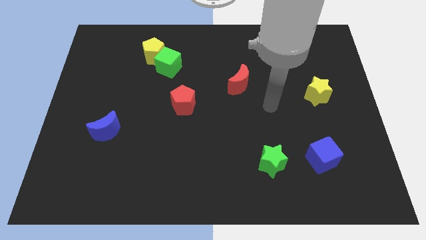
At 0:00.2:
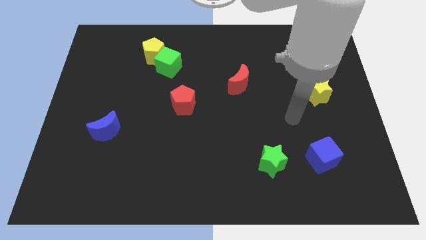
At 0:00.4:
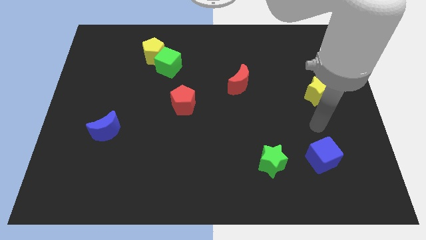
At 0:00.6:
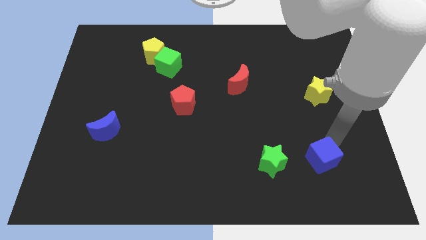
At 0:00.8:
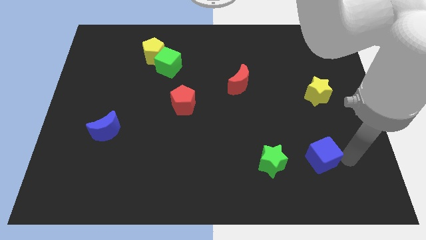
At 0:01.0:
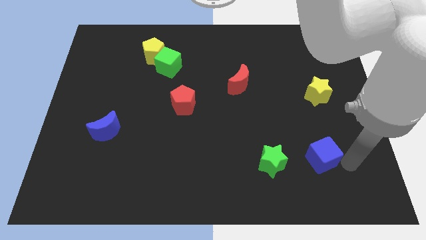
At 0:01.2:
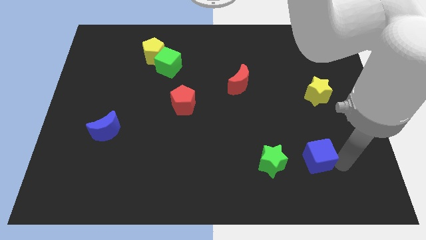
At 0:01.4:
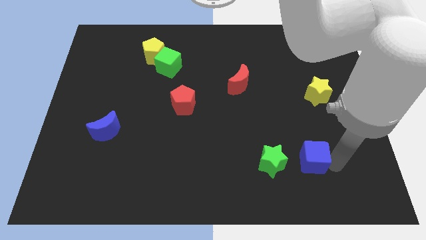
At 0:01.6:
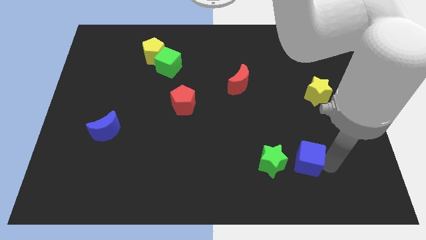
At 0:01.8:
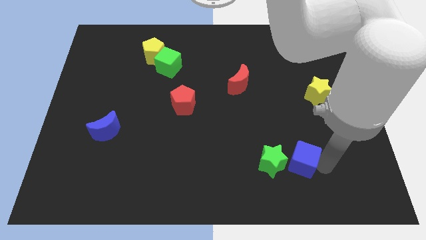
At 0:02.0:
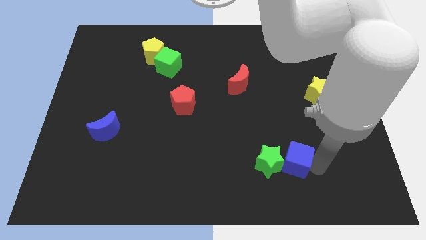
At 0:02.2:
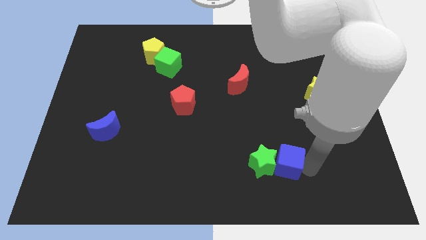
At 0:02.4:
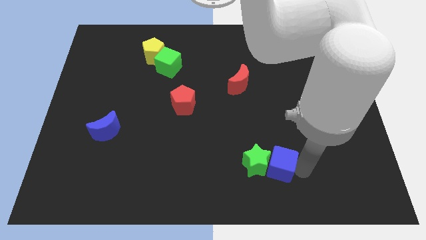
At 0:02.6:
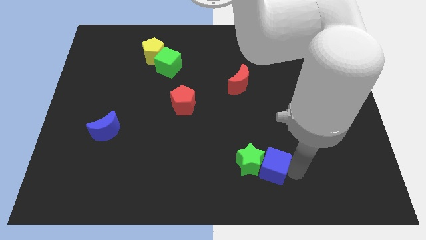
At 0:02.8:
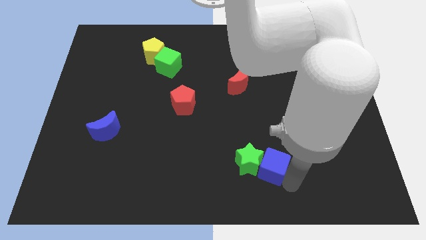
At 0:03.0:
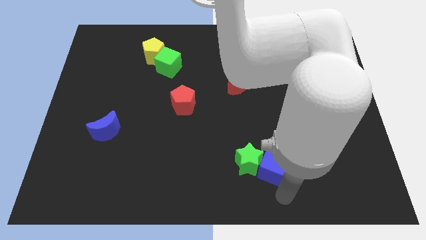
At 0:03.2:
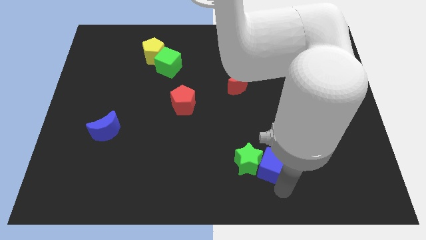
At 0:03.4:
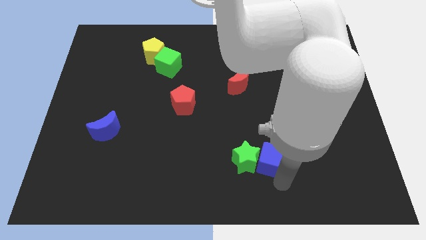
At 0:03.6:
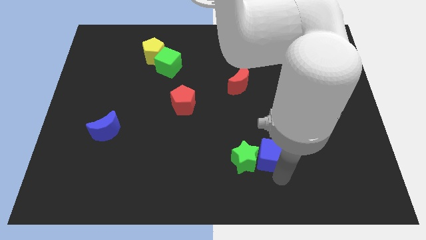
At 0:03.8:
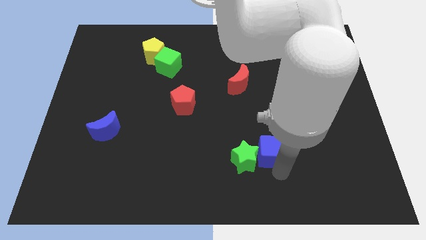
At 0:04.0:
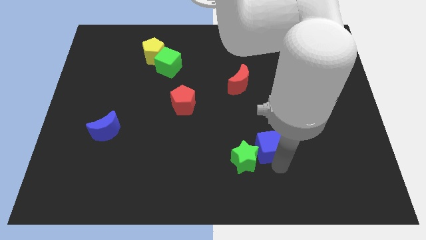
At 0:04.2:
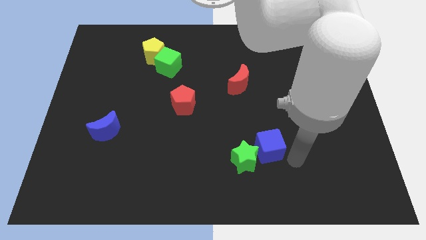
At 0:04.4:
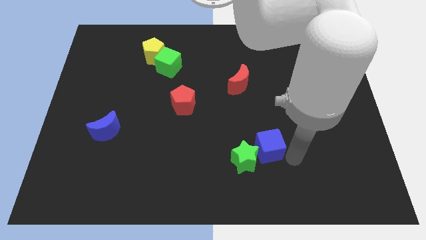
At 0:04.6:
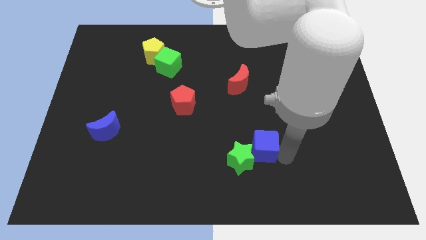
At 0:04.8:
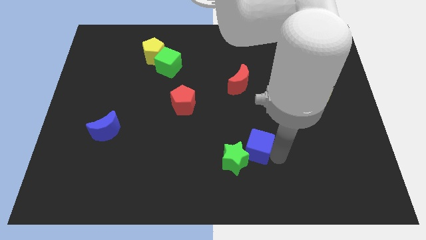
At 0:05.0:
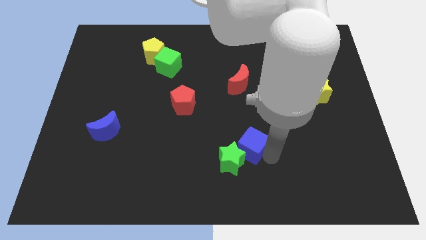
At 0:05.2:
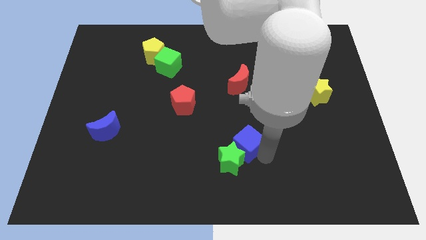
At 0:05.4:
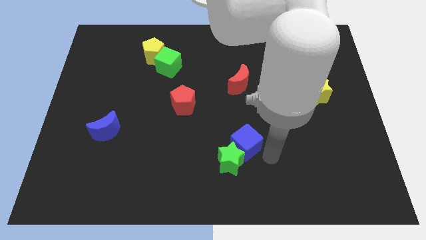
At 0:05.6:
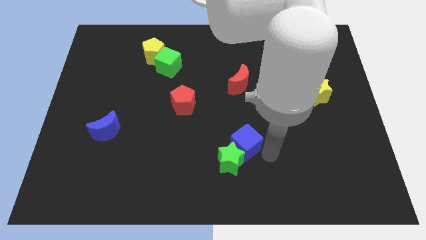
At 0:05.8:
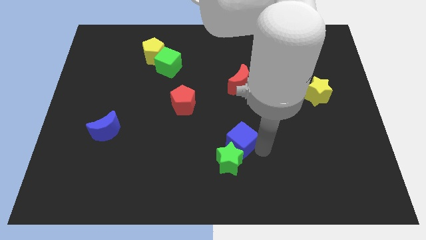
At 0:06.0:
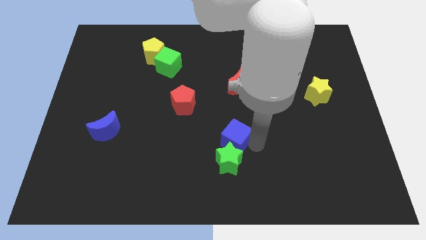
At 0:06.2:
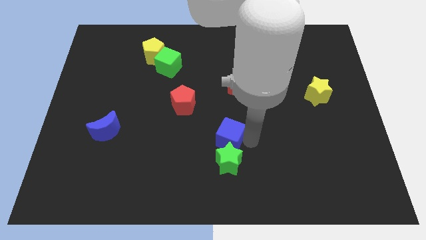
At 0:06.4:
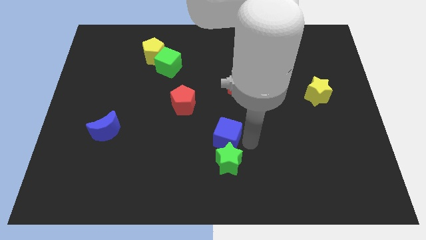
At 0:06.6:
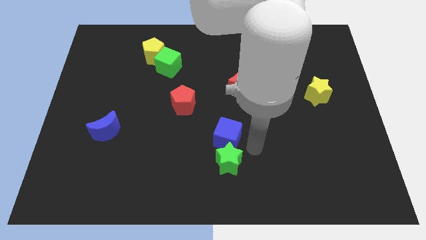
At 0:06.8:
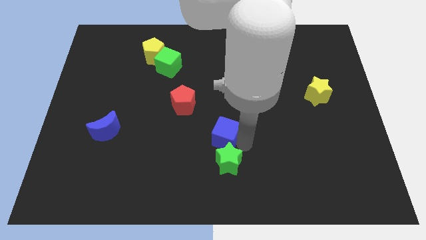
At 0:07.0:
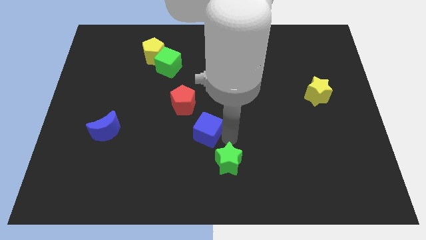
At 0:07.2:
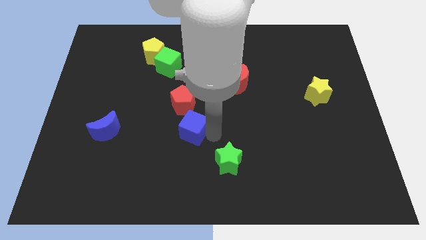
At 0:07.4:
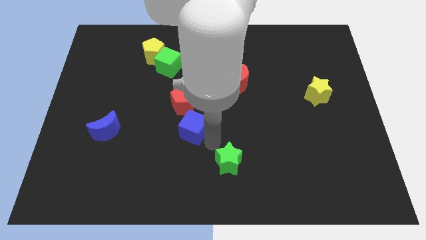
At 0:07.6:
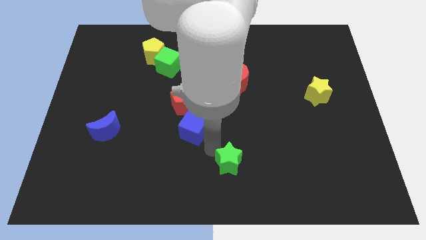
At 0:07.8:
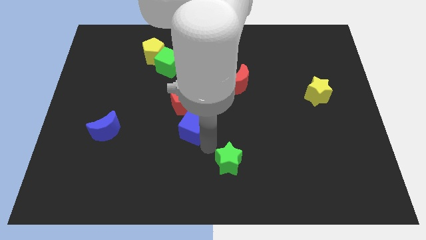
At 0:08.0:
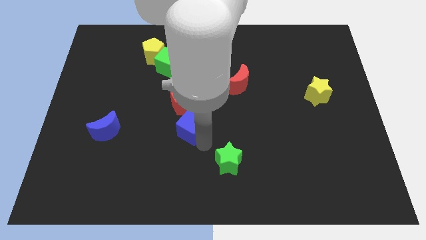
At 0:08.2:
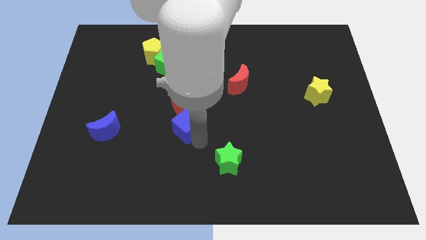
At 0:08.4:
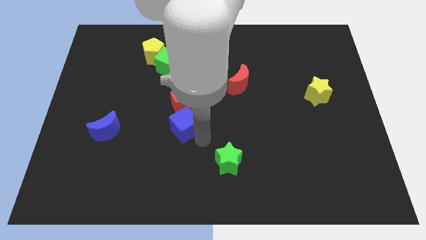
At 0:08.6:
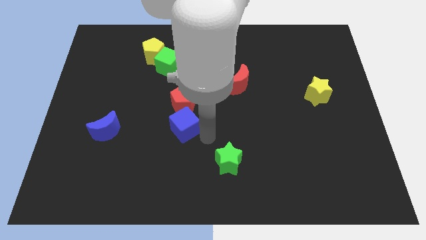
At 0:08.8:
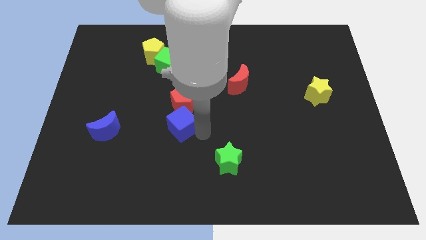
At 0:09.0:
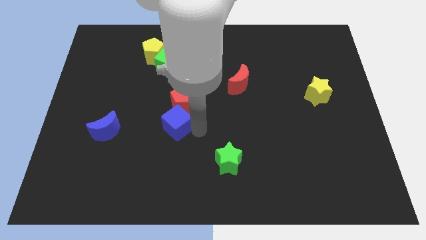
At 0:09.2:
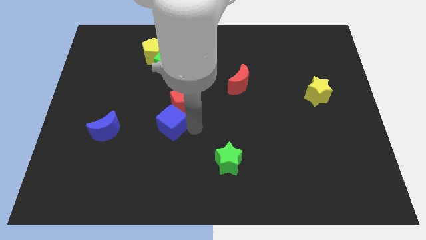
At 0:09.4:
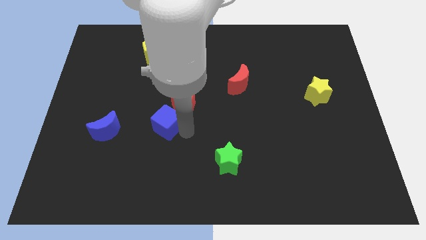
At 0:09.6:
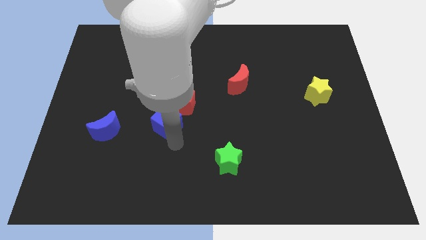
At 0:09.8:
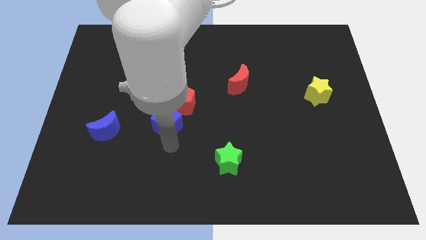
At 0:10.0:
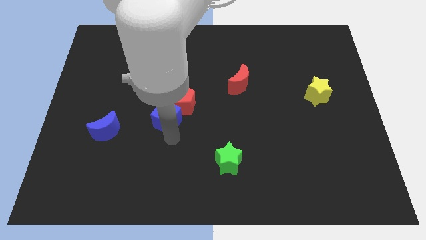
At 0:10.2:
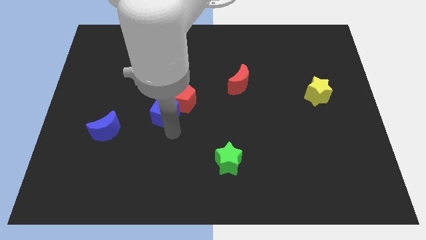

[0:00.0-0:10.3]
slide the blue cube to the bottom of the green cube

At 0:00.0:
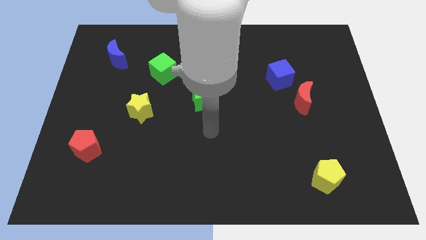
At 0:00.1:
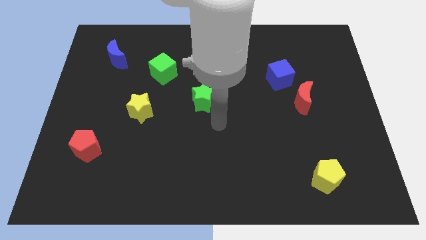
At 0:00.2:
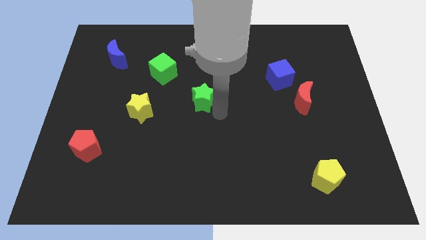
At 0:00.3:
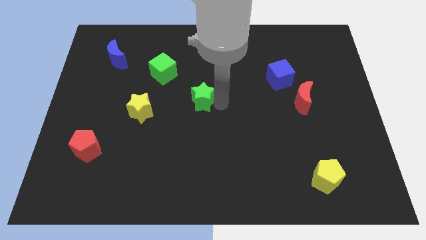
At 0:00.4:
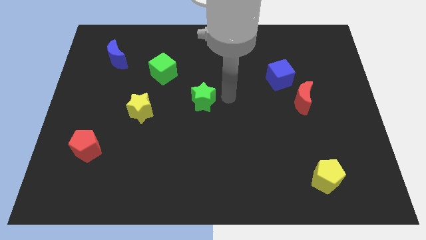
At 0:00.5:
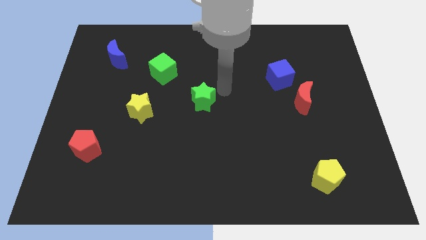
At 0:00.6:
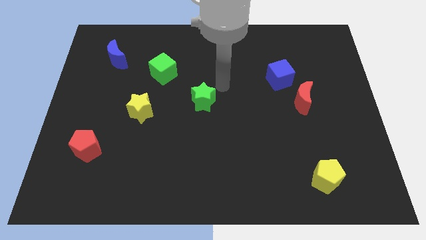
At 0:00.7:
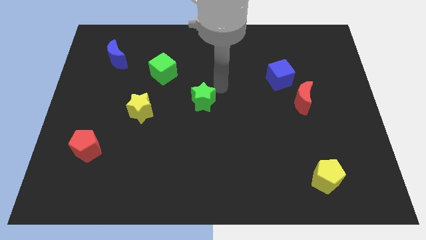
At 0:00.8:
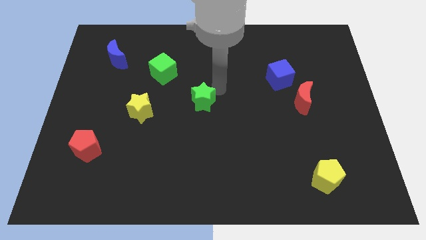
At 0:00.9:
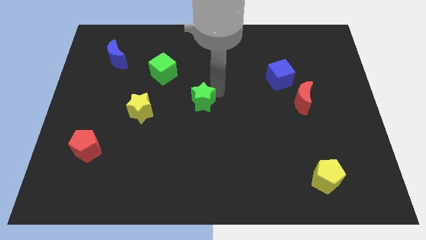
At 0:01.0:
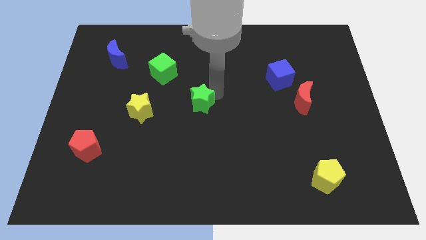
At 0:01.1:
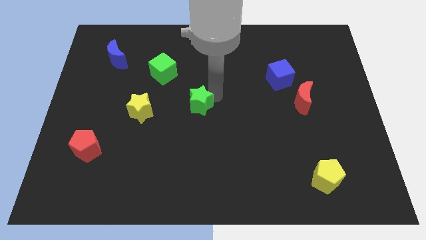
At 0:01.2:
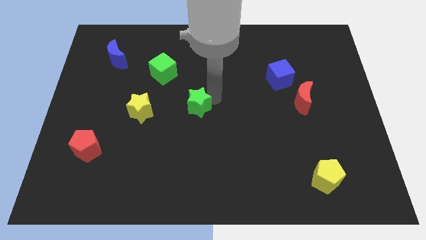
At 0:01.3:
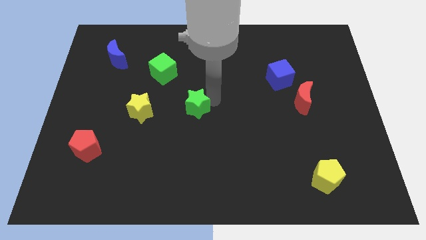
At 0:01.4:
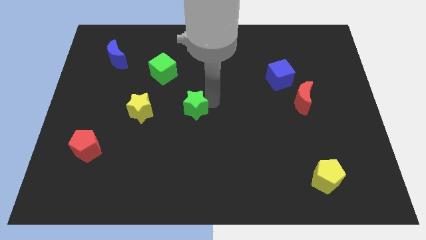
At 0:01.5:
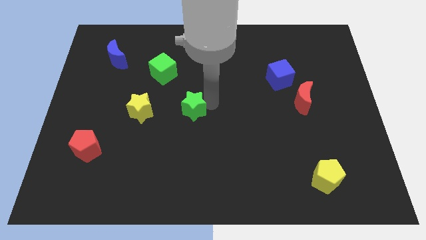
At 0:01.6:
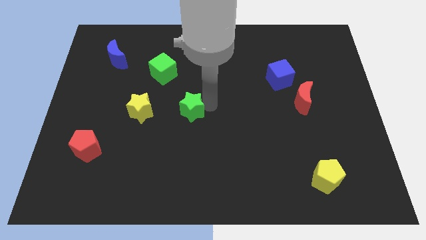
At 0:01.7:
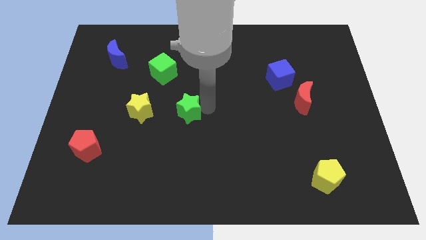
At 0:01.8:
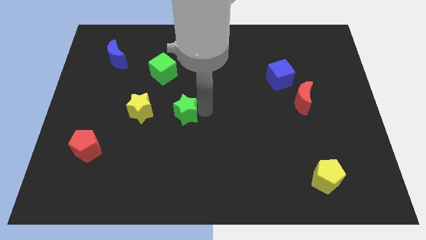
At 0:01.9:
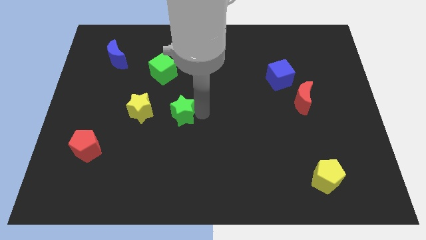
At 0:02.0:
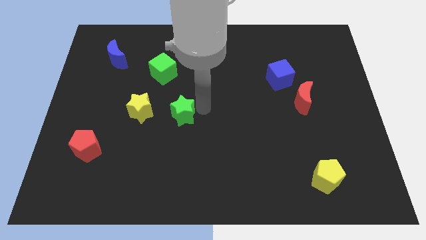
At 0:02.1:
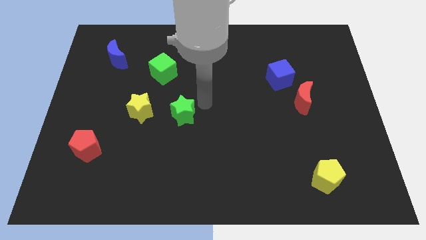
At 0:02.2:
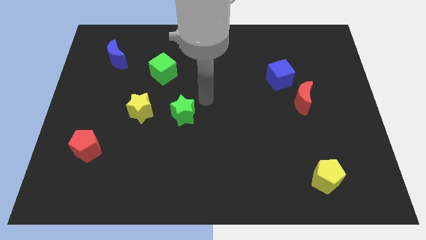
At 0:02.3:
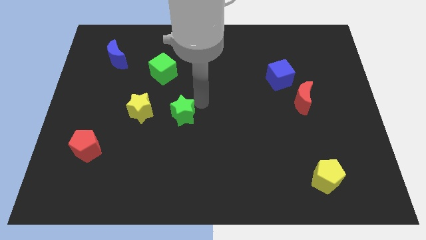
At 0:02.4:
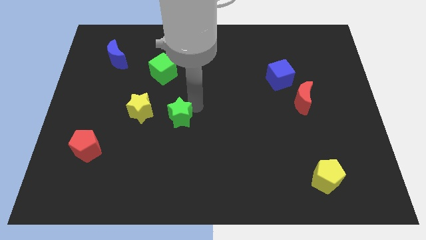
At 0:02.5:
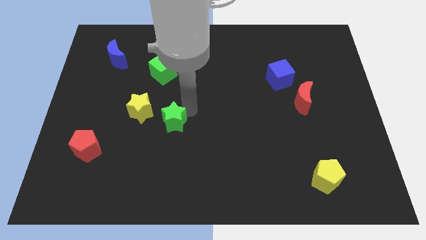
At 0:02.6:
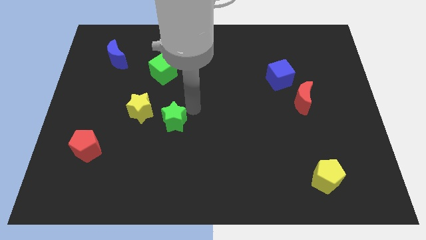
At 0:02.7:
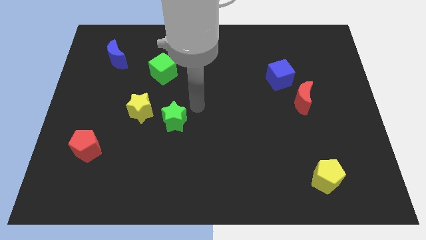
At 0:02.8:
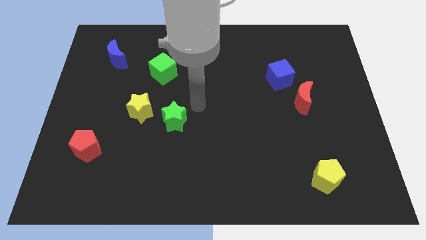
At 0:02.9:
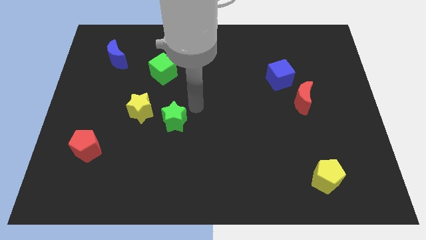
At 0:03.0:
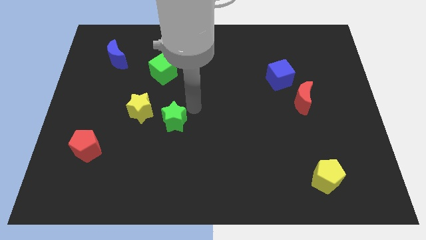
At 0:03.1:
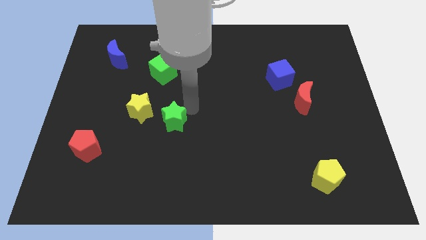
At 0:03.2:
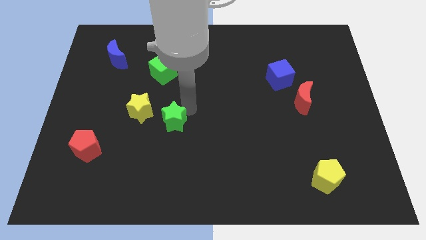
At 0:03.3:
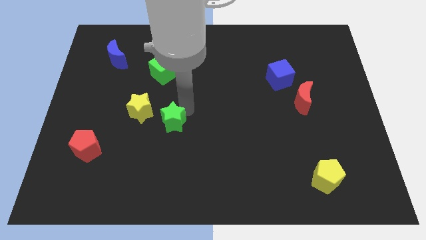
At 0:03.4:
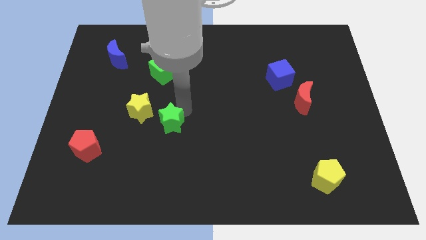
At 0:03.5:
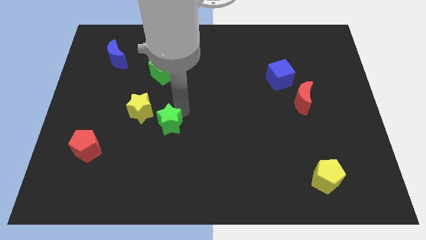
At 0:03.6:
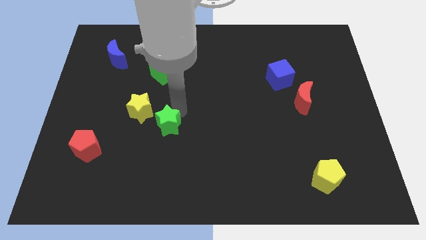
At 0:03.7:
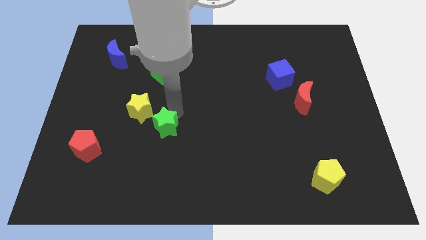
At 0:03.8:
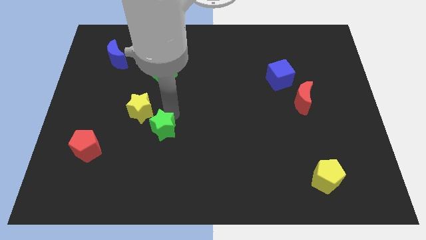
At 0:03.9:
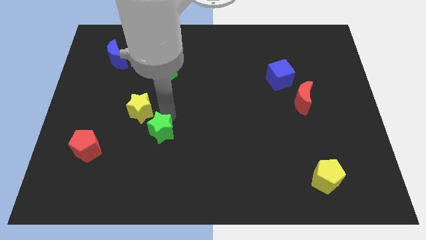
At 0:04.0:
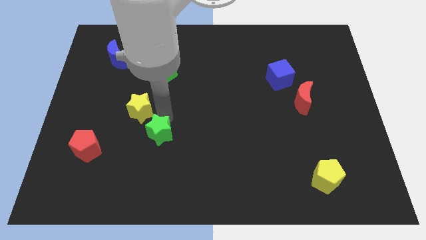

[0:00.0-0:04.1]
slide the green star to the bottom side of the yellow star
